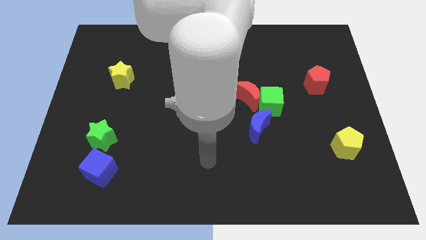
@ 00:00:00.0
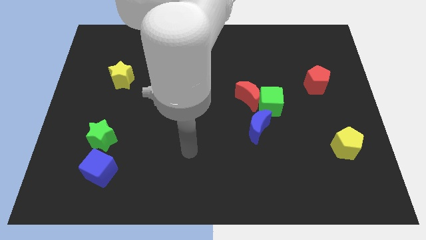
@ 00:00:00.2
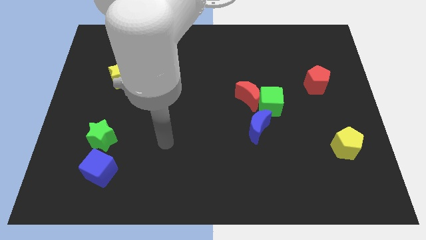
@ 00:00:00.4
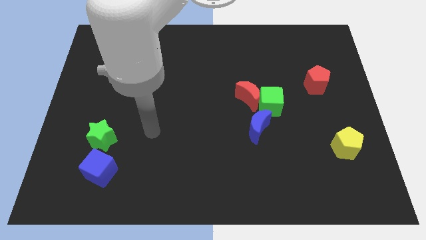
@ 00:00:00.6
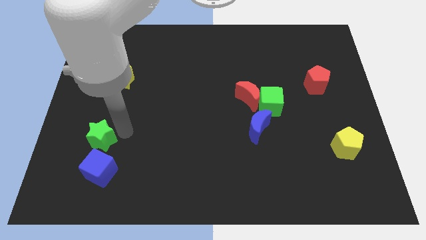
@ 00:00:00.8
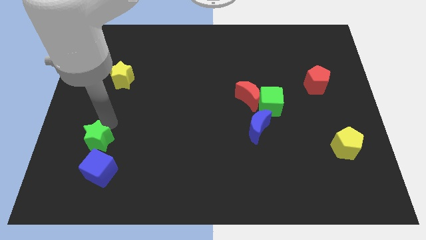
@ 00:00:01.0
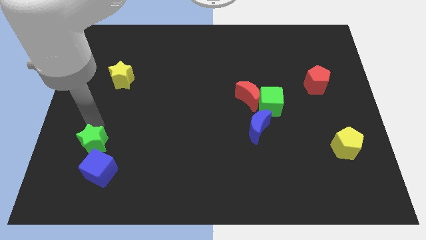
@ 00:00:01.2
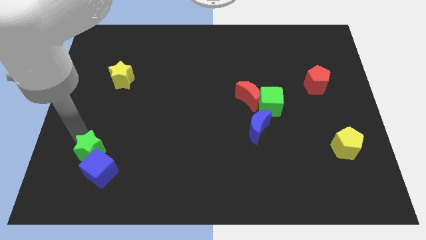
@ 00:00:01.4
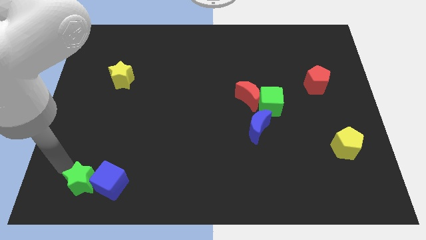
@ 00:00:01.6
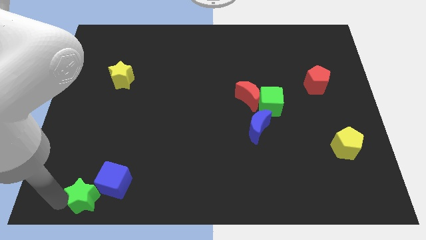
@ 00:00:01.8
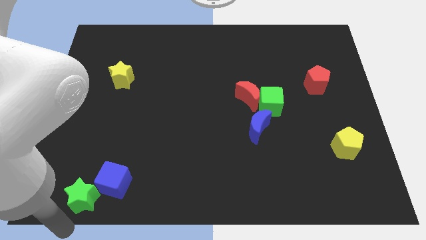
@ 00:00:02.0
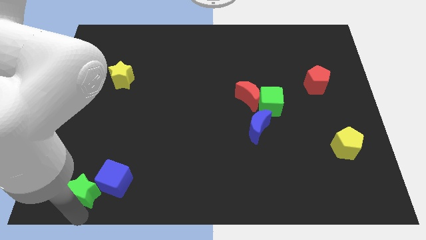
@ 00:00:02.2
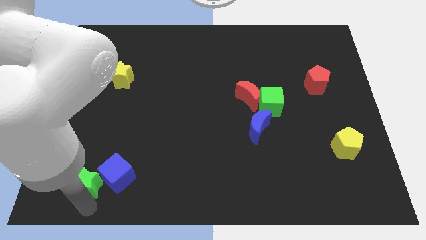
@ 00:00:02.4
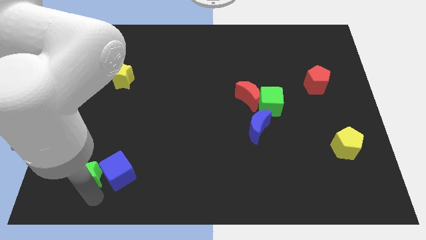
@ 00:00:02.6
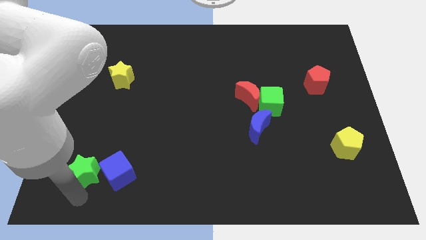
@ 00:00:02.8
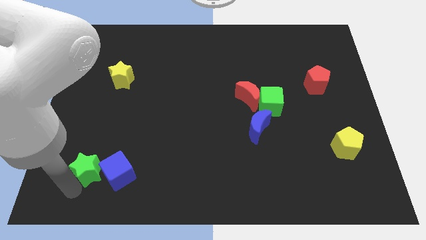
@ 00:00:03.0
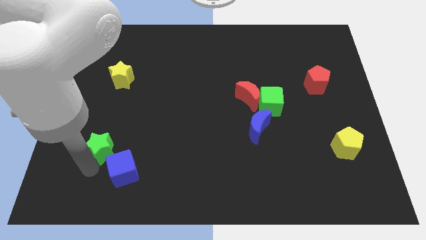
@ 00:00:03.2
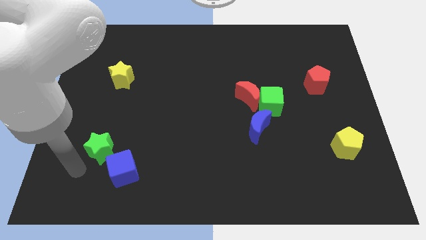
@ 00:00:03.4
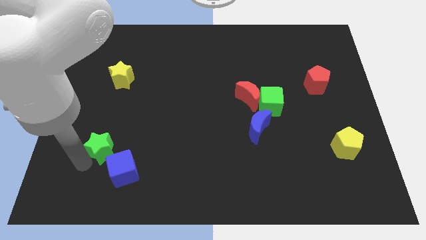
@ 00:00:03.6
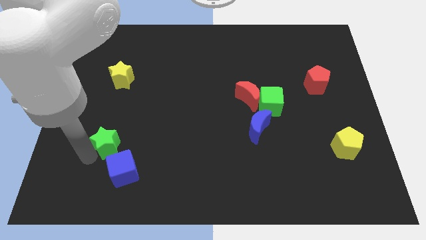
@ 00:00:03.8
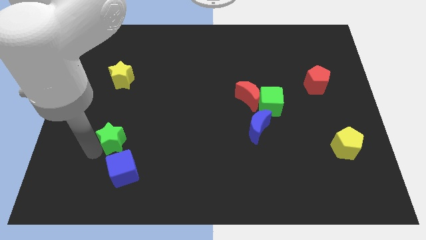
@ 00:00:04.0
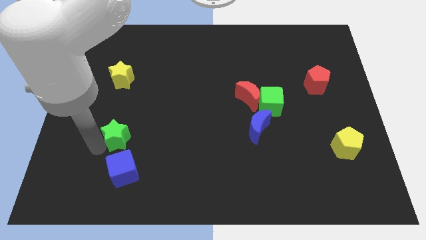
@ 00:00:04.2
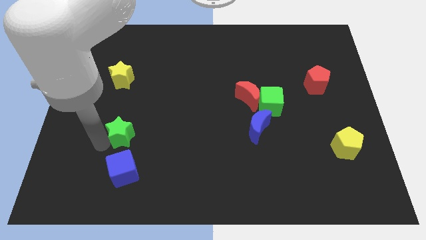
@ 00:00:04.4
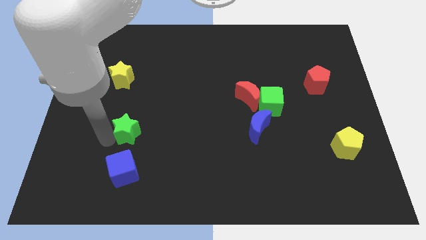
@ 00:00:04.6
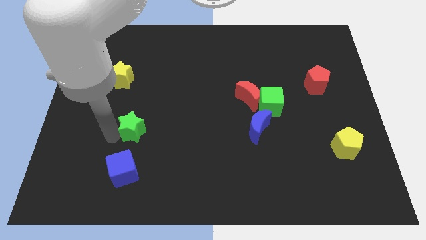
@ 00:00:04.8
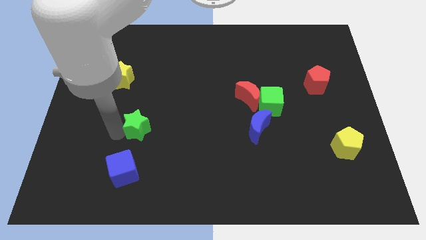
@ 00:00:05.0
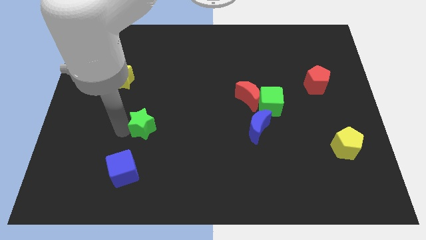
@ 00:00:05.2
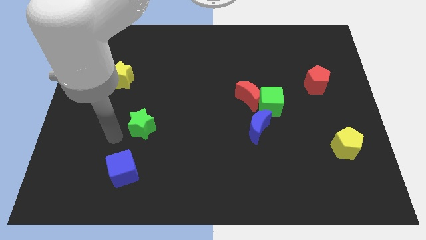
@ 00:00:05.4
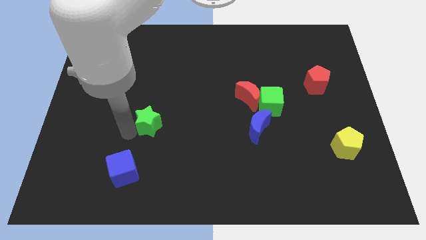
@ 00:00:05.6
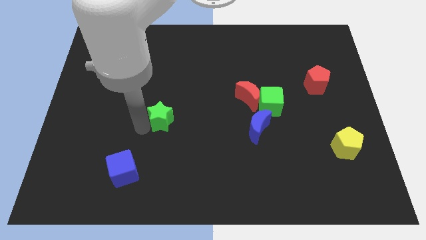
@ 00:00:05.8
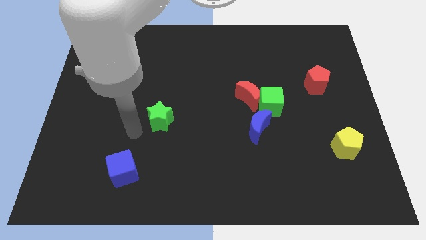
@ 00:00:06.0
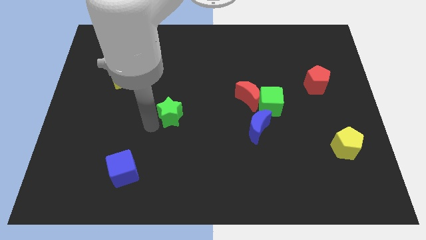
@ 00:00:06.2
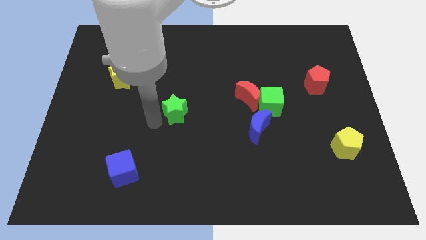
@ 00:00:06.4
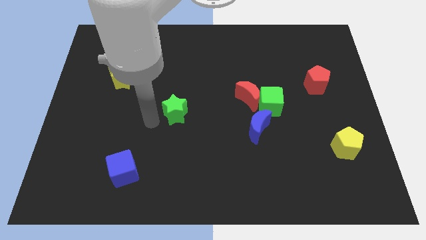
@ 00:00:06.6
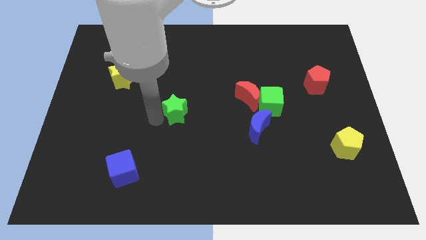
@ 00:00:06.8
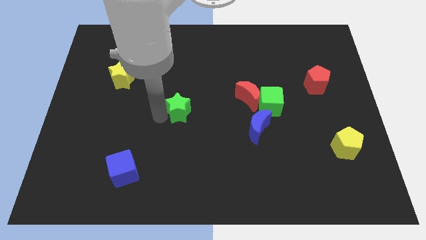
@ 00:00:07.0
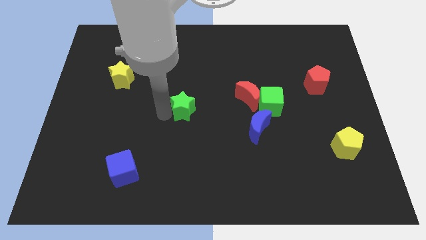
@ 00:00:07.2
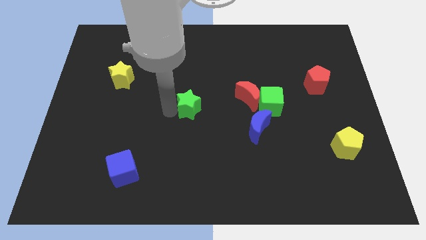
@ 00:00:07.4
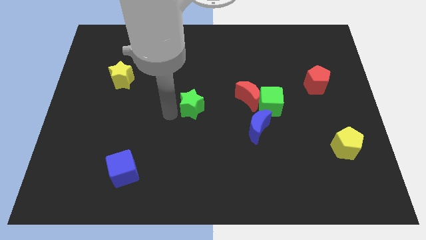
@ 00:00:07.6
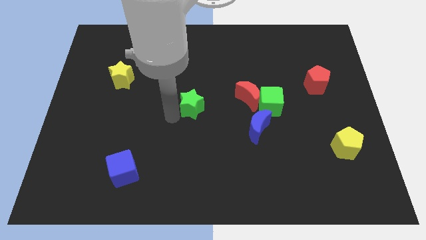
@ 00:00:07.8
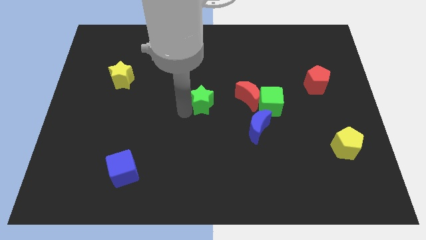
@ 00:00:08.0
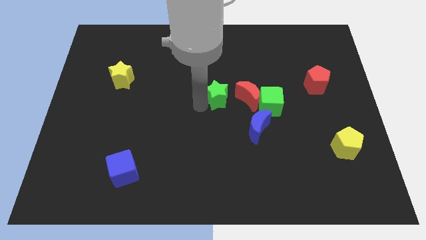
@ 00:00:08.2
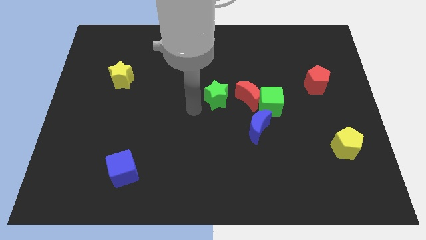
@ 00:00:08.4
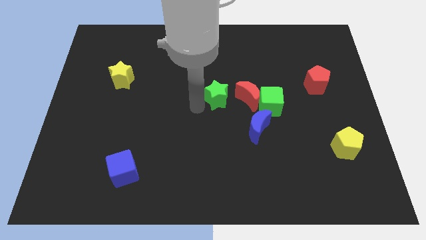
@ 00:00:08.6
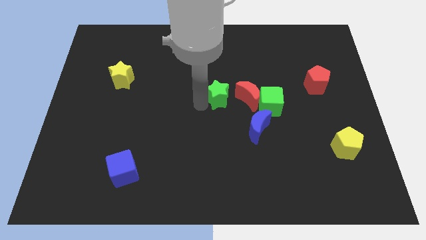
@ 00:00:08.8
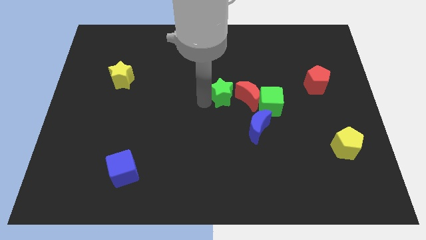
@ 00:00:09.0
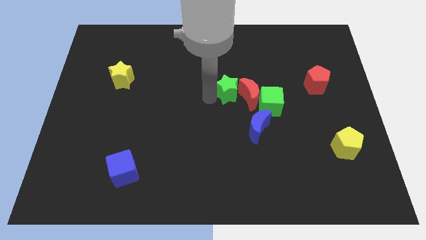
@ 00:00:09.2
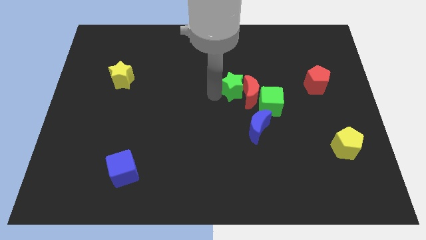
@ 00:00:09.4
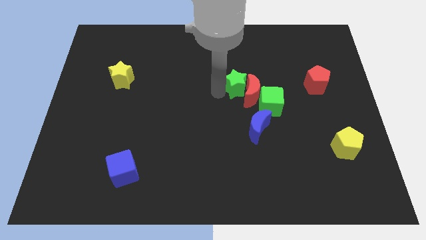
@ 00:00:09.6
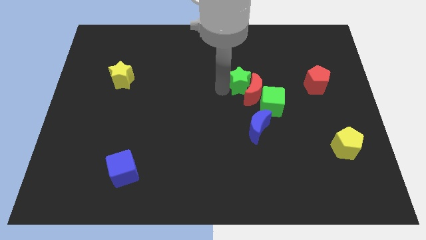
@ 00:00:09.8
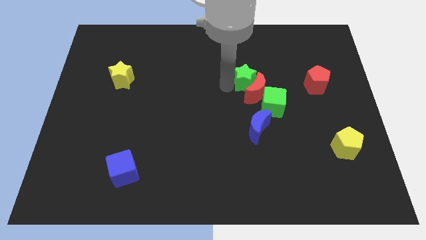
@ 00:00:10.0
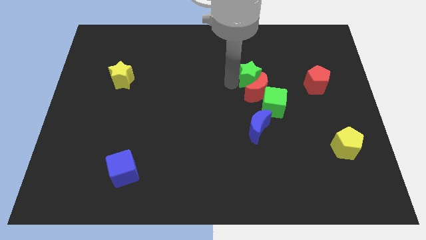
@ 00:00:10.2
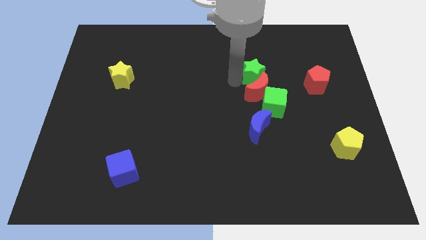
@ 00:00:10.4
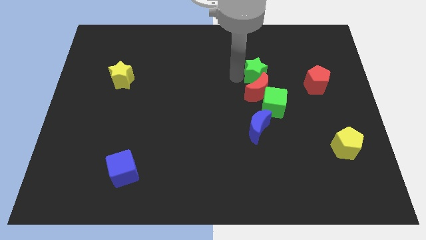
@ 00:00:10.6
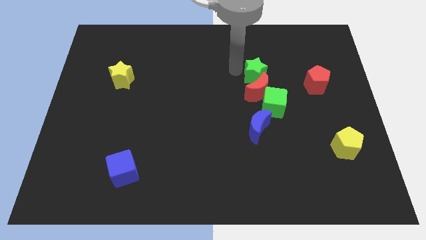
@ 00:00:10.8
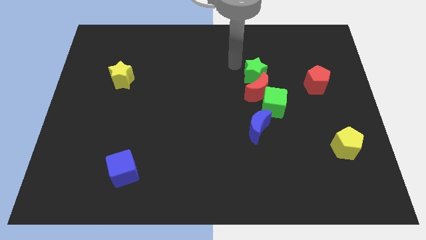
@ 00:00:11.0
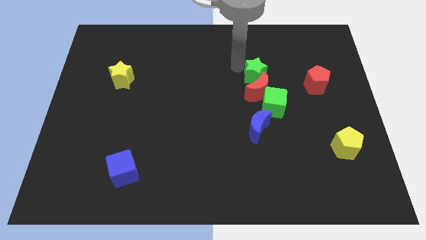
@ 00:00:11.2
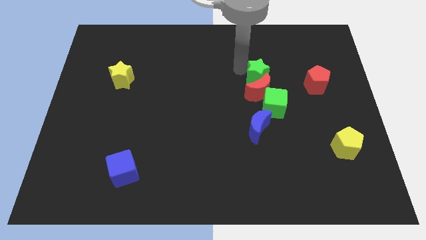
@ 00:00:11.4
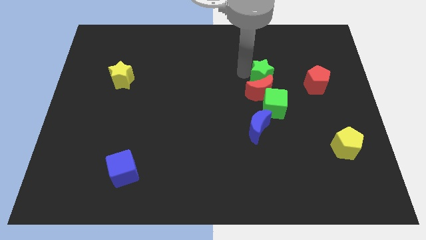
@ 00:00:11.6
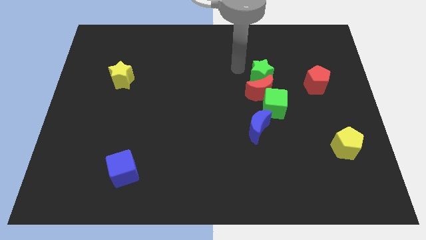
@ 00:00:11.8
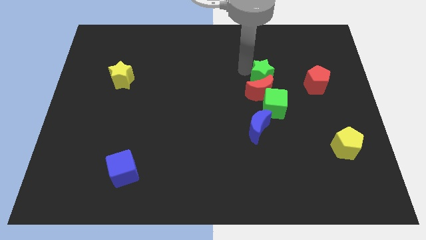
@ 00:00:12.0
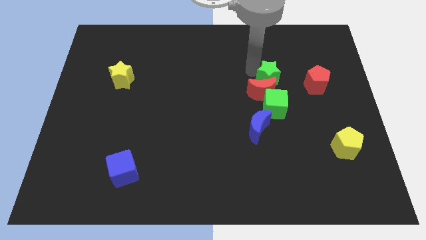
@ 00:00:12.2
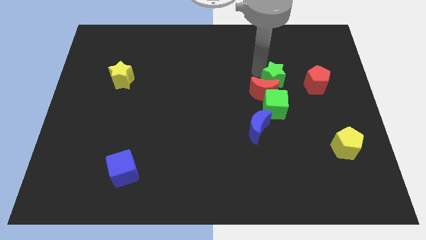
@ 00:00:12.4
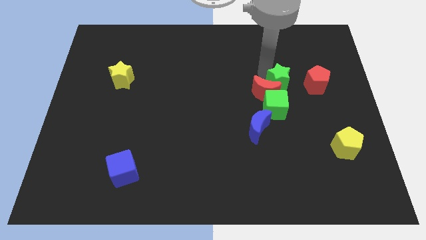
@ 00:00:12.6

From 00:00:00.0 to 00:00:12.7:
move the green star to the top right side of the green cube
